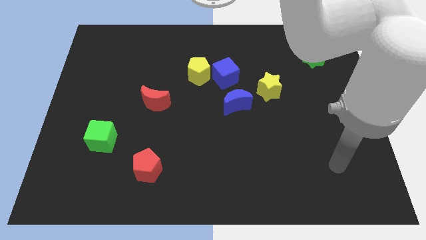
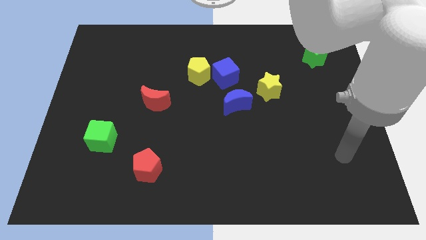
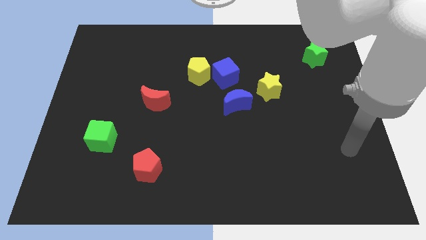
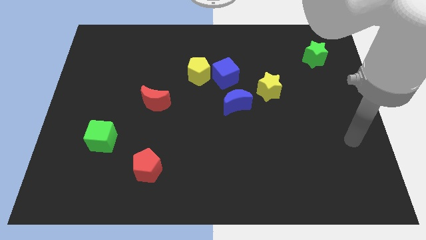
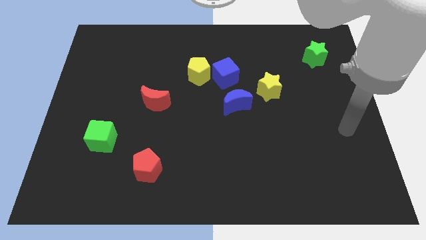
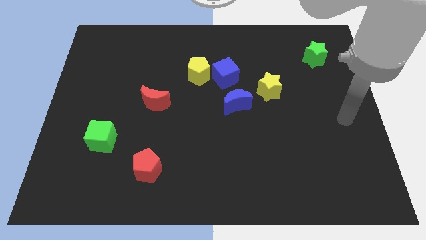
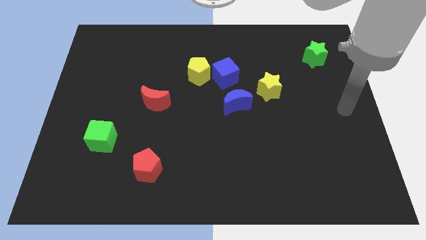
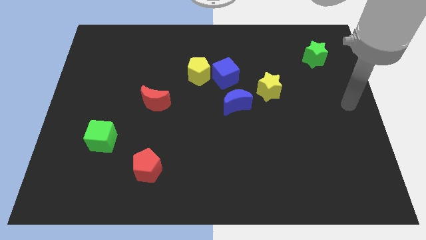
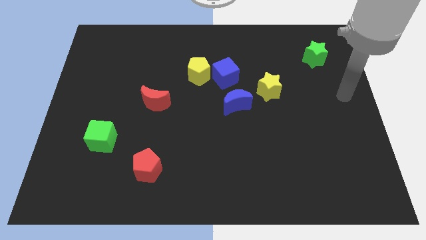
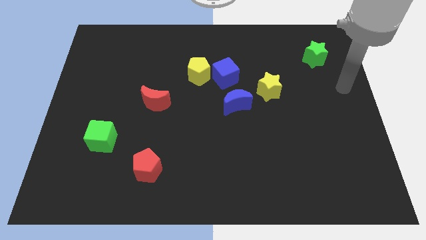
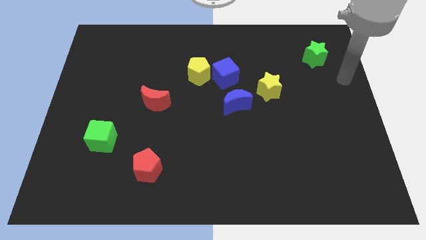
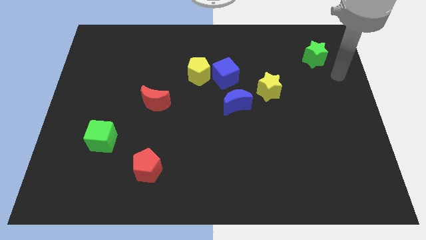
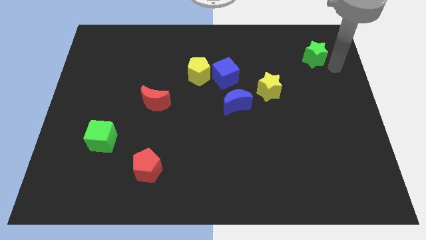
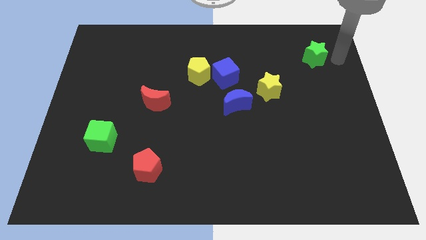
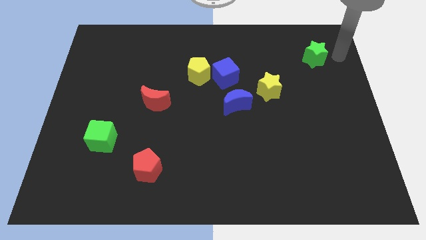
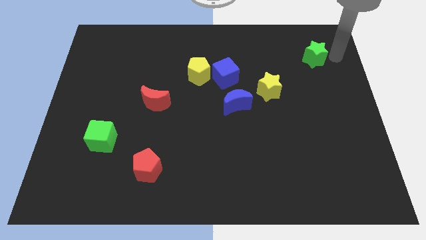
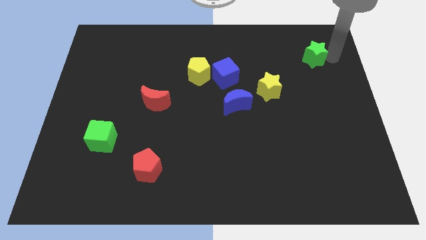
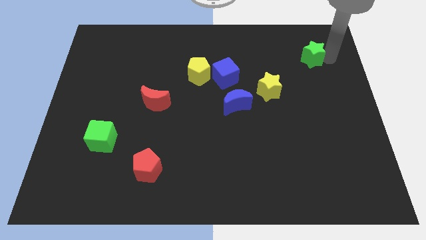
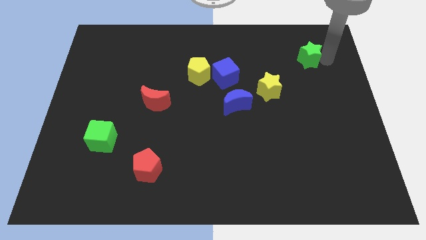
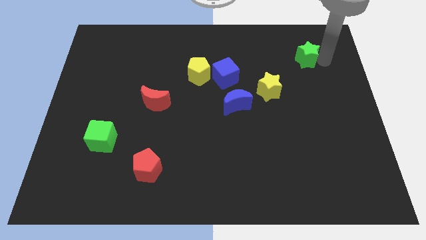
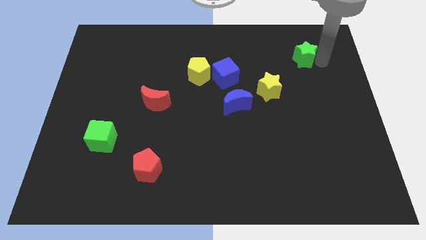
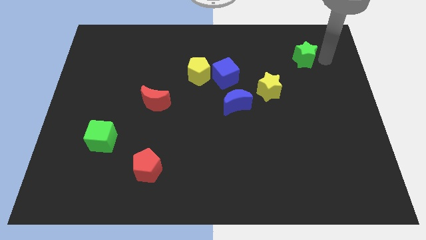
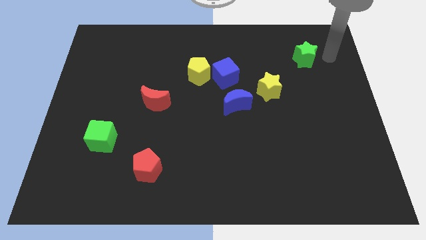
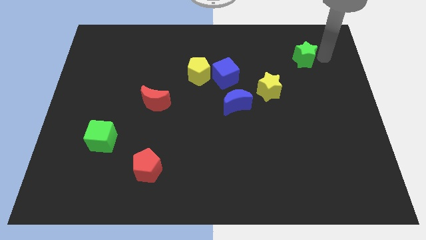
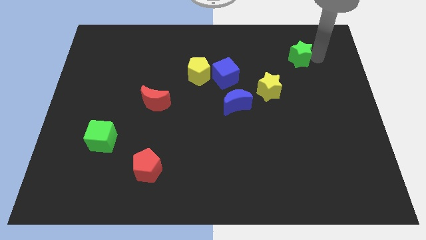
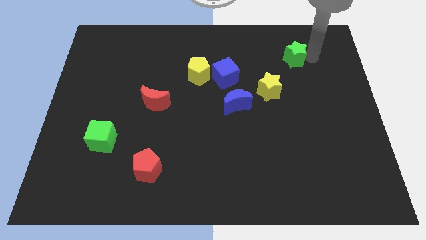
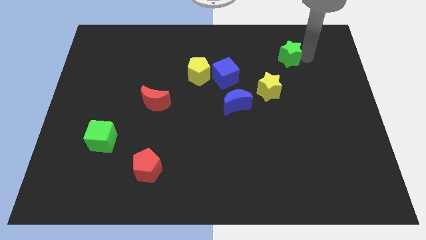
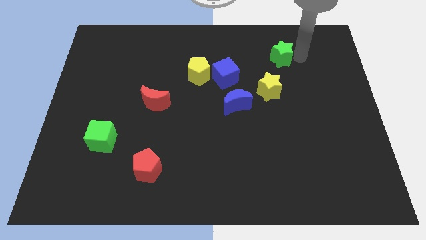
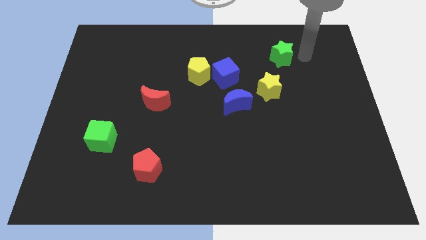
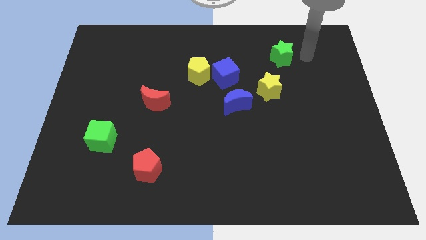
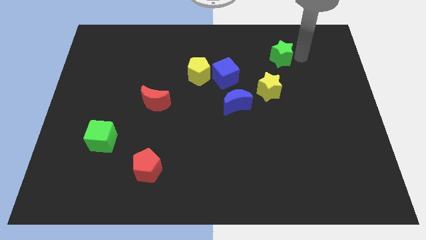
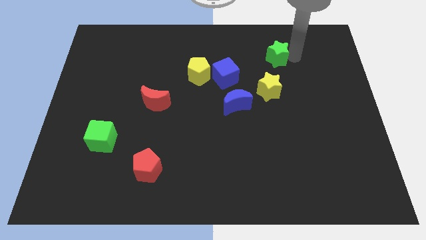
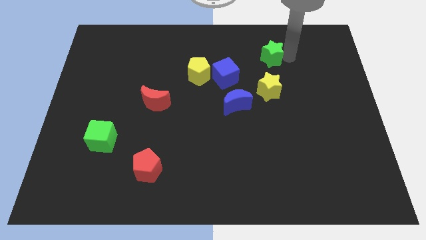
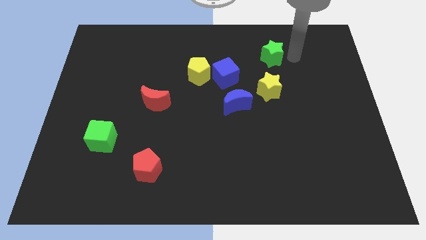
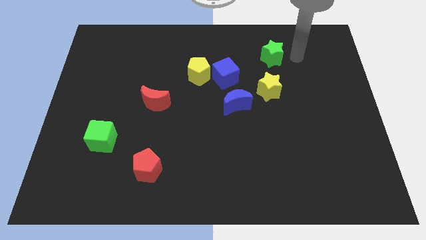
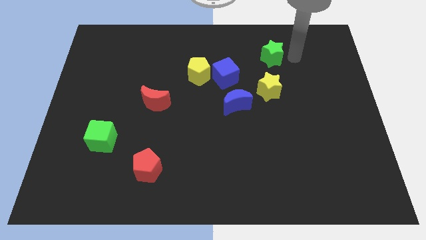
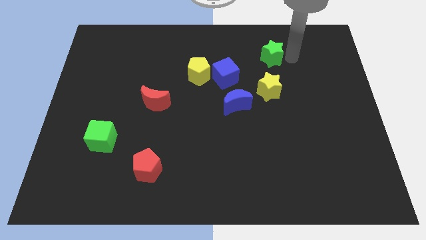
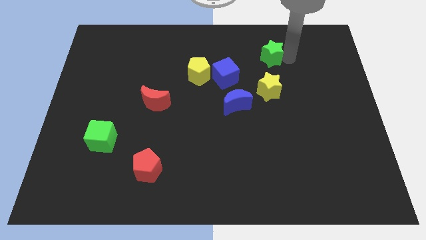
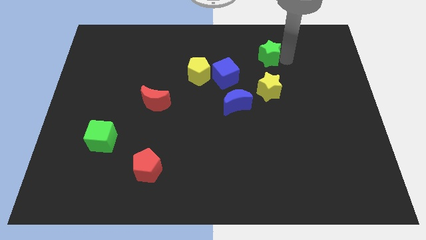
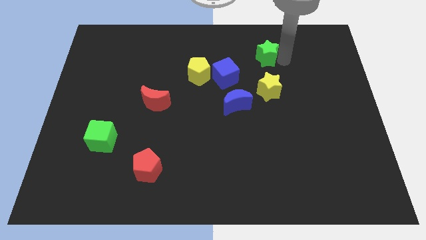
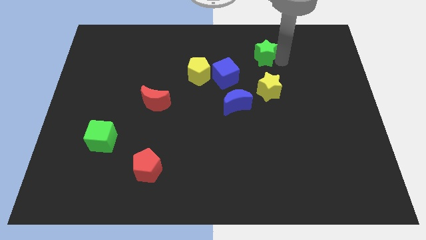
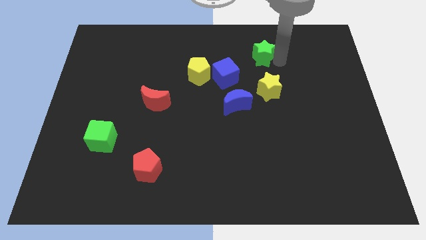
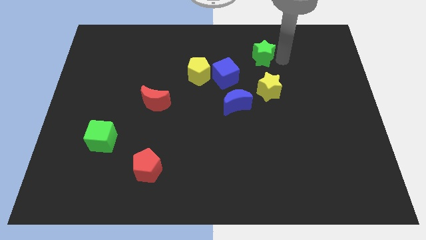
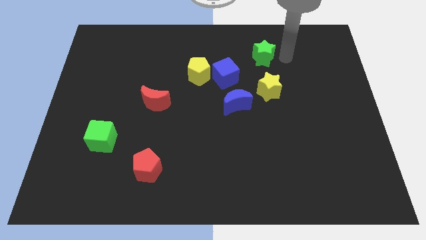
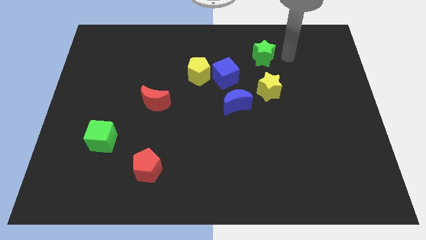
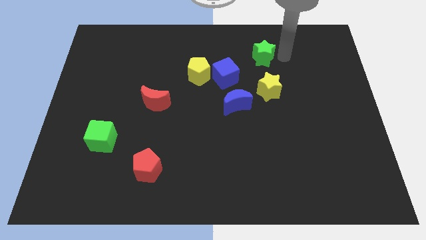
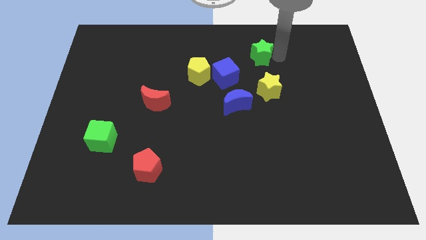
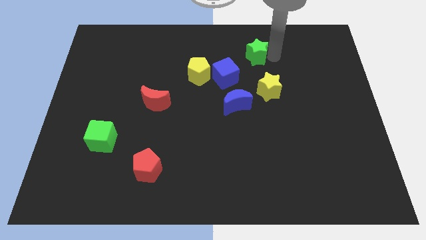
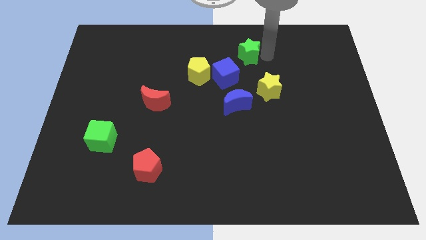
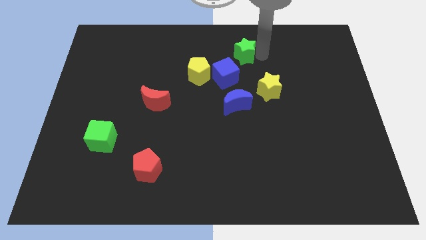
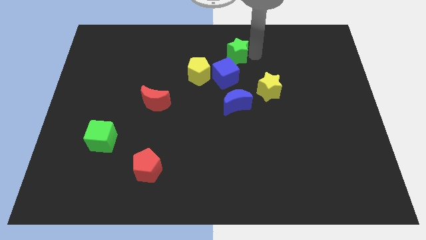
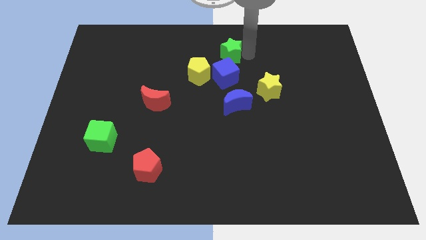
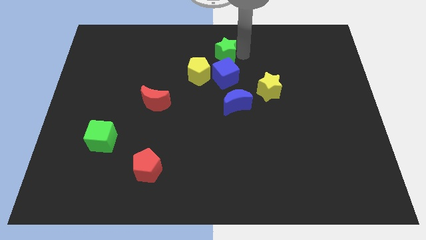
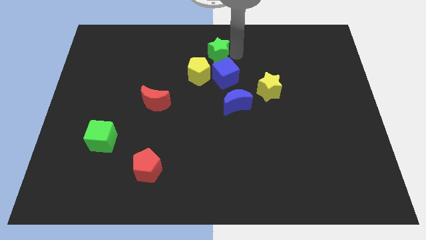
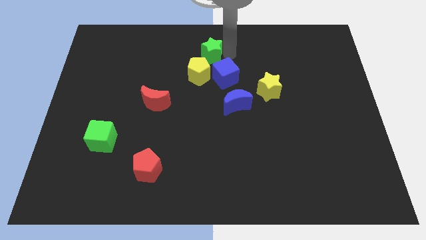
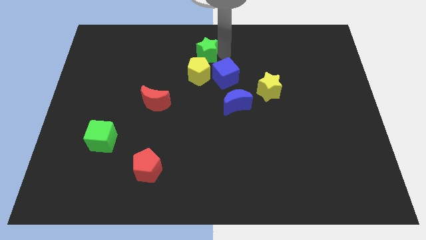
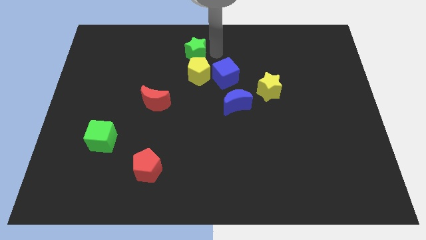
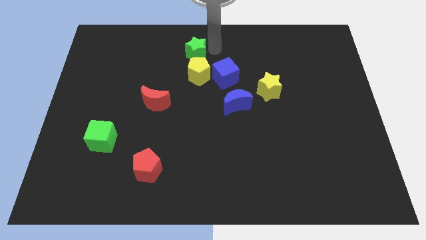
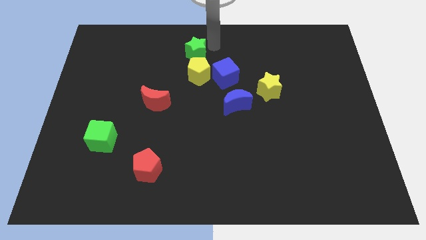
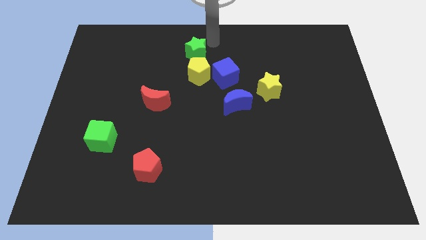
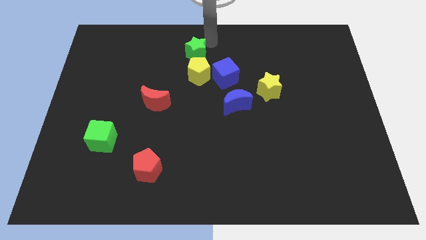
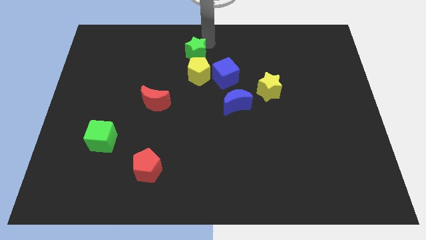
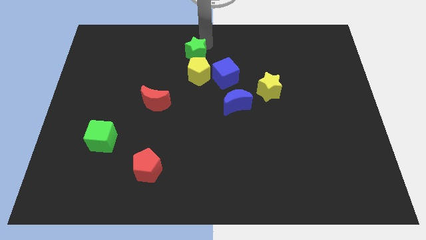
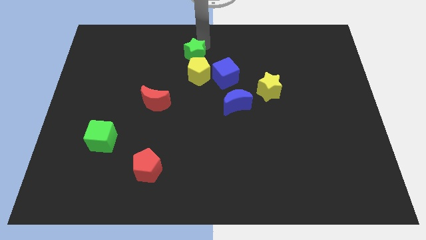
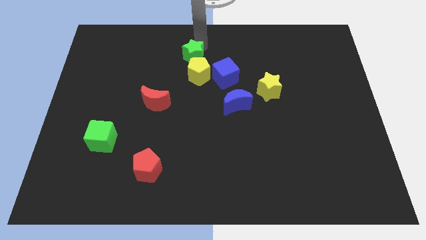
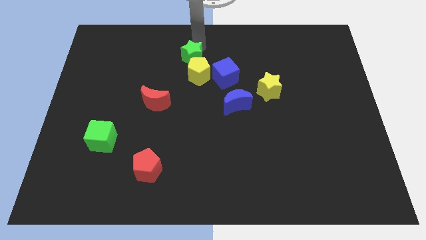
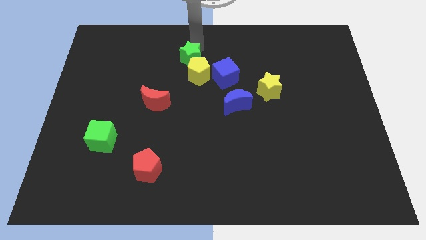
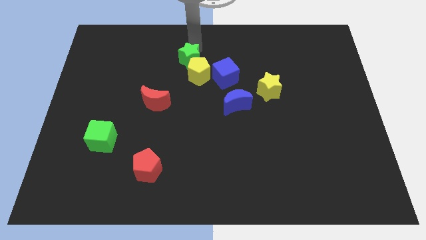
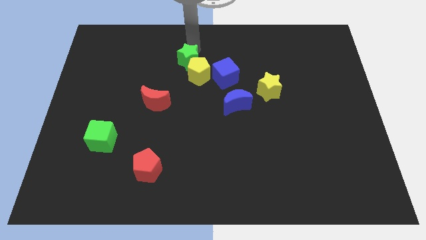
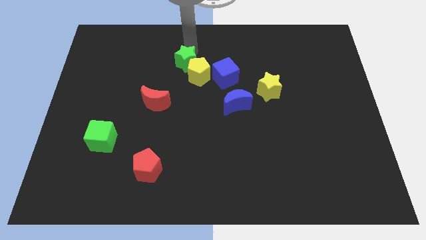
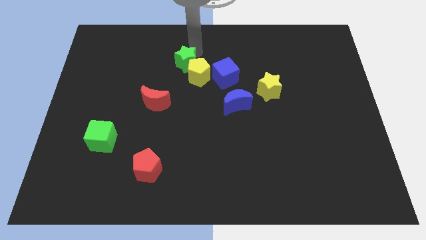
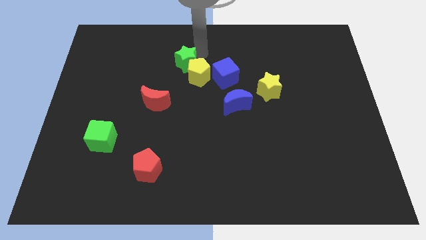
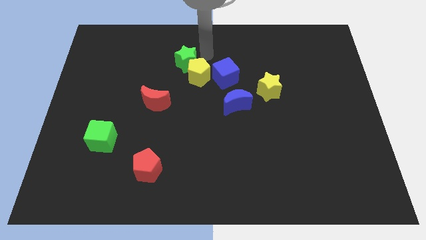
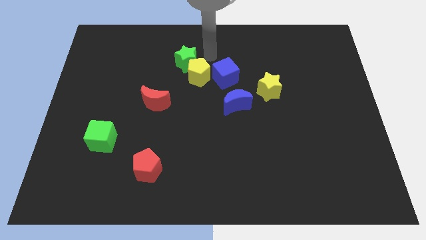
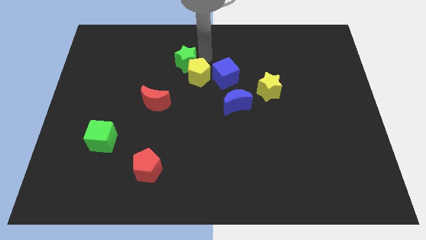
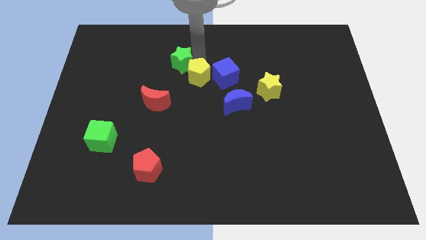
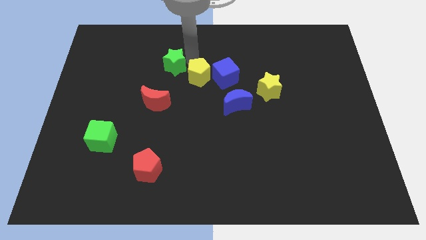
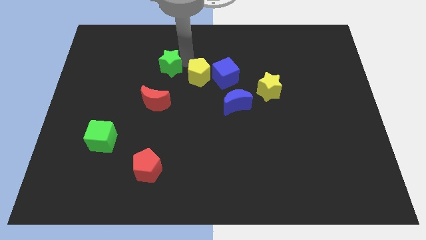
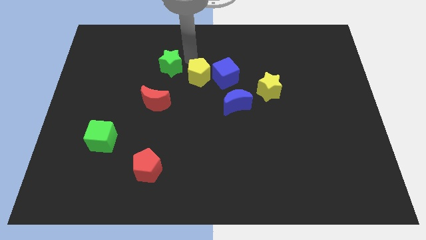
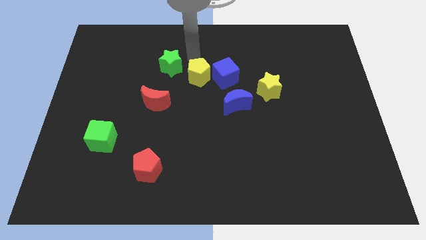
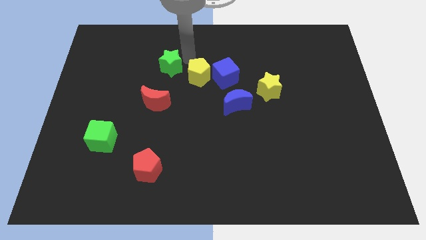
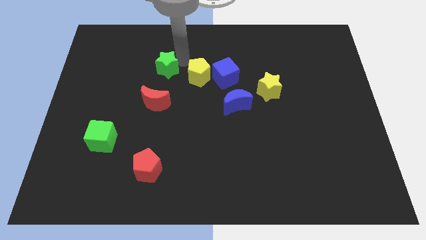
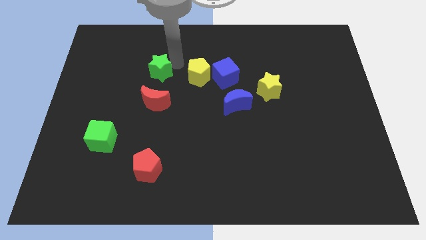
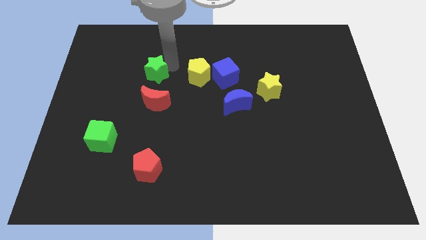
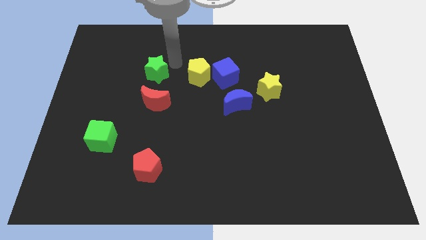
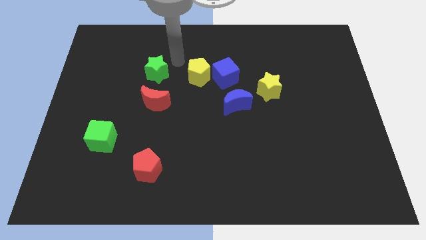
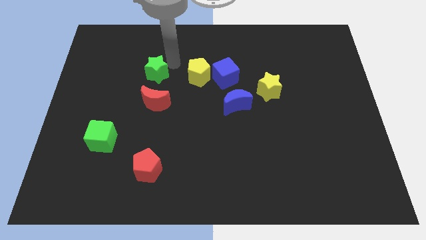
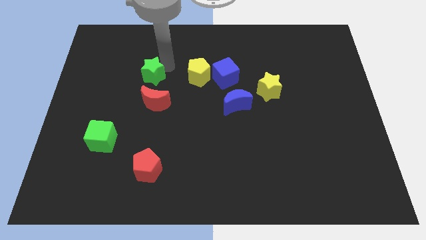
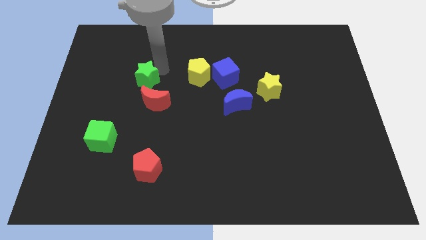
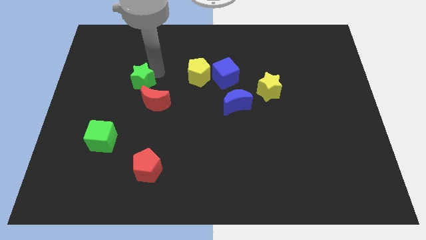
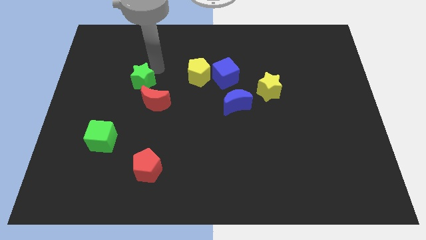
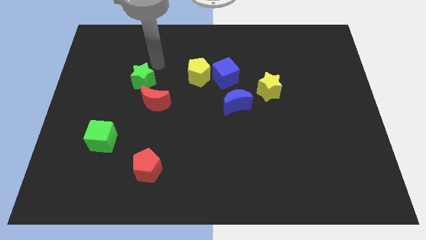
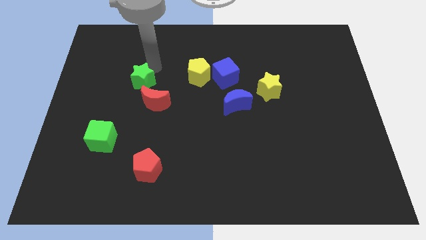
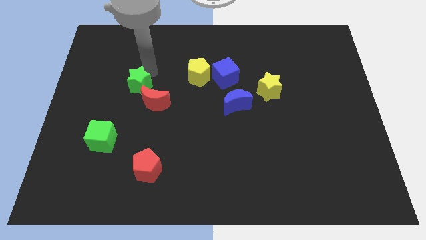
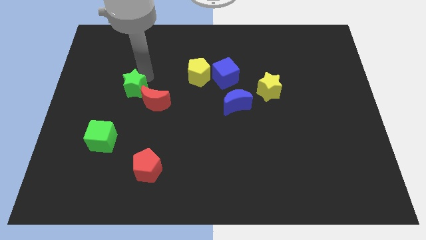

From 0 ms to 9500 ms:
move the green star to the left of the red moon
